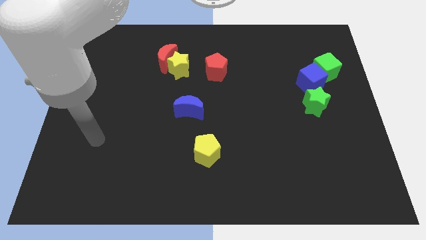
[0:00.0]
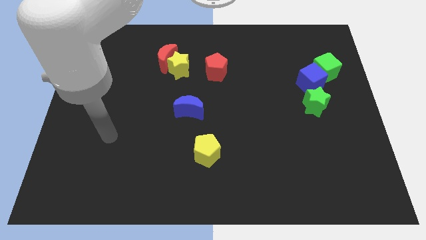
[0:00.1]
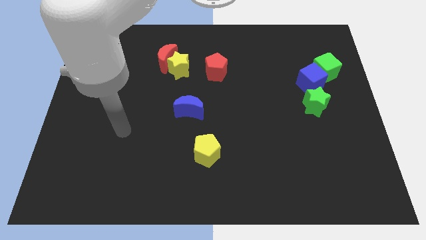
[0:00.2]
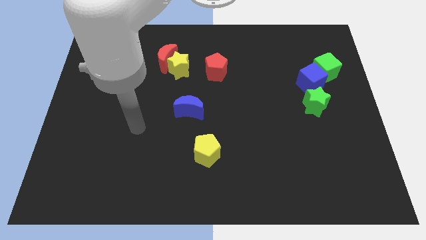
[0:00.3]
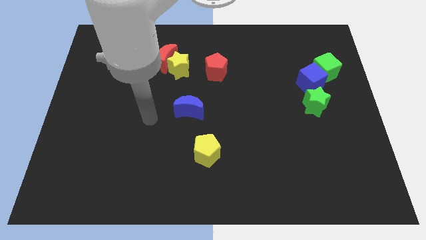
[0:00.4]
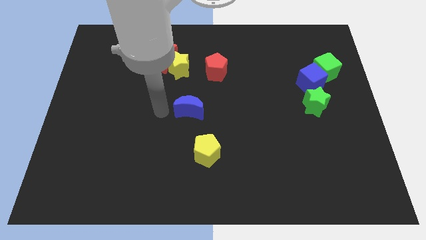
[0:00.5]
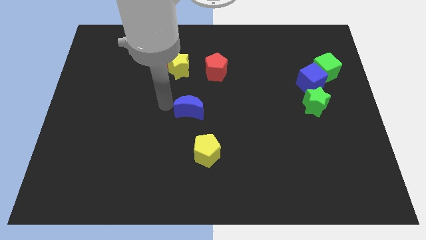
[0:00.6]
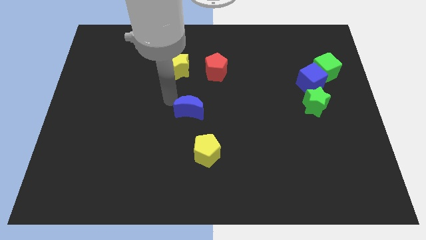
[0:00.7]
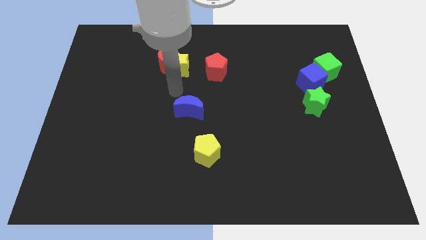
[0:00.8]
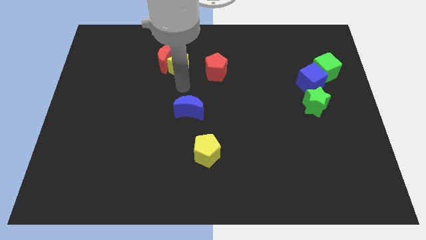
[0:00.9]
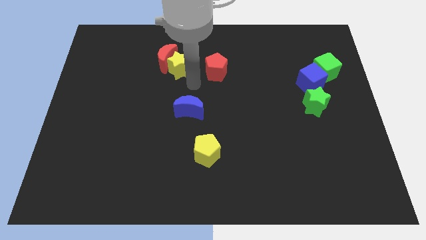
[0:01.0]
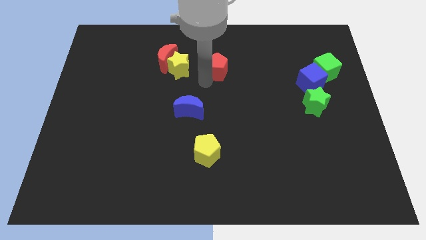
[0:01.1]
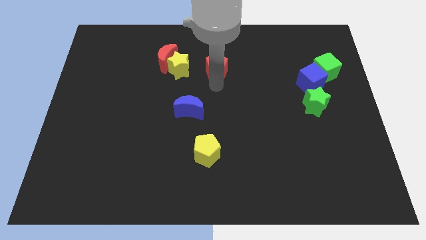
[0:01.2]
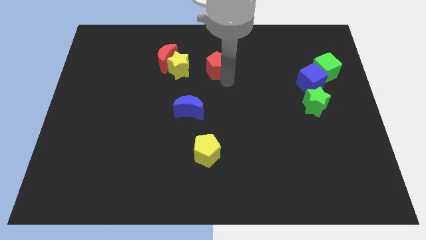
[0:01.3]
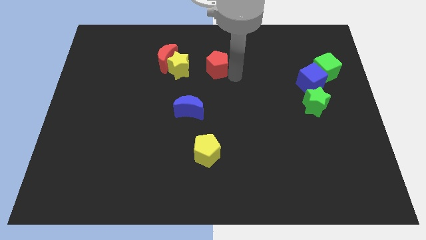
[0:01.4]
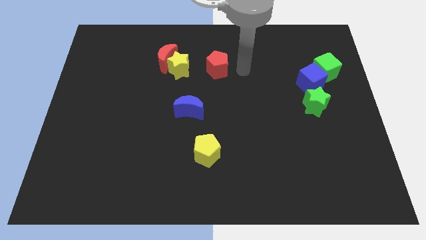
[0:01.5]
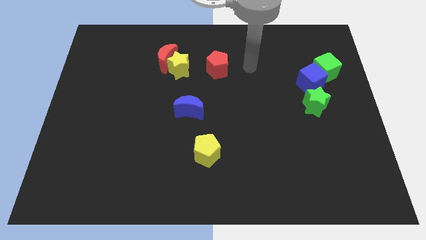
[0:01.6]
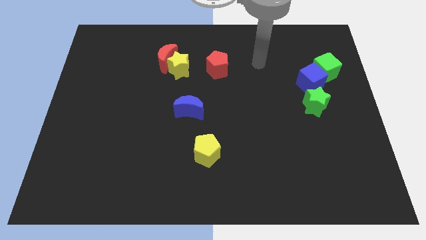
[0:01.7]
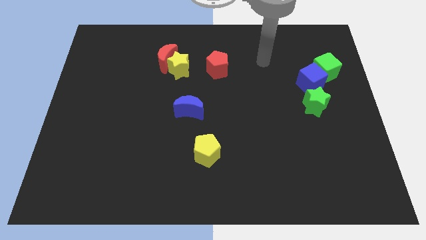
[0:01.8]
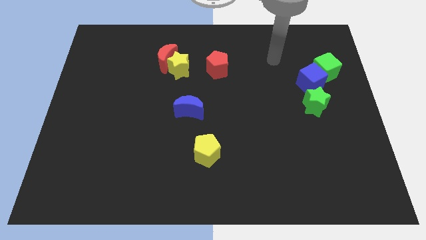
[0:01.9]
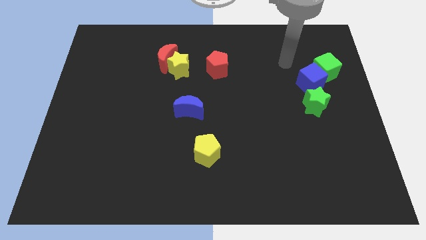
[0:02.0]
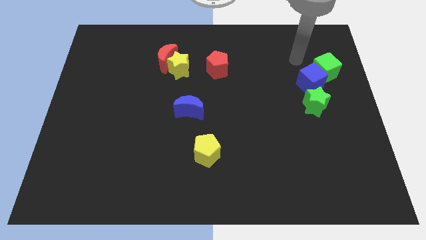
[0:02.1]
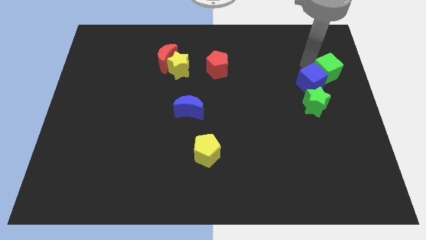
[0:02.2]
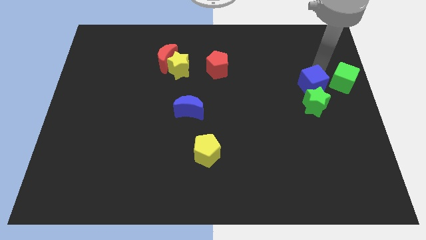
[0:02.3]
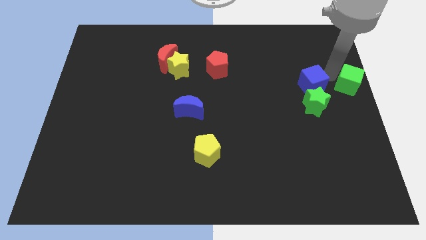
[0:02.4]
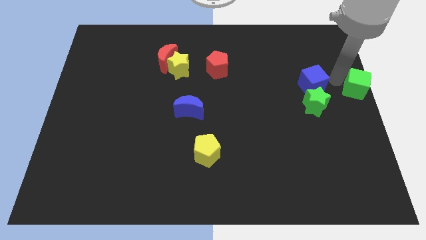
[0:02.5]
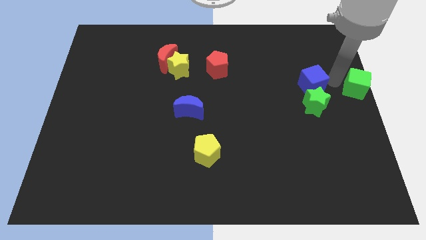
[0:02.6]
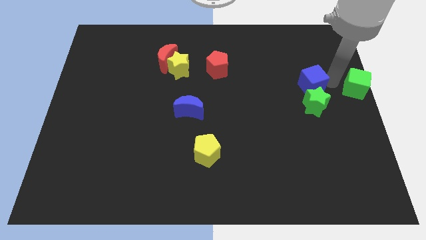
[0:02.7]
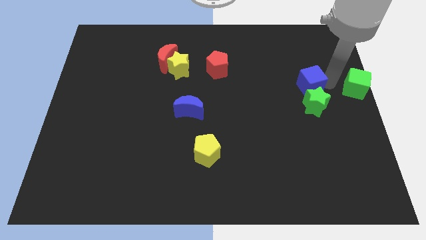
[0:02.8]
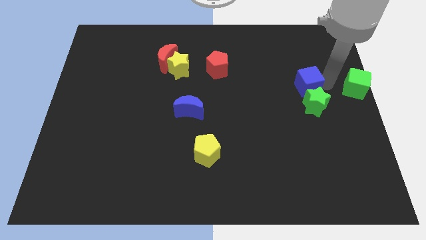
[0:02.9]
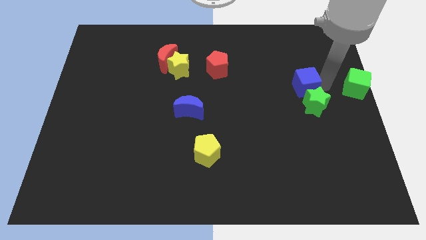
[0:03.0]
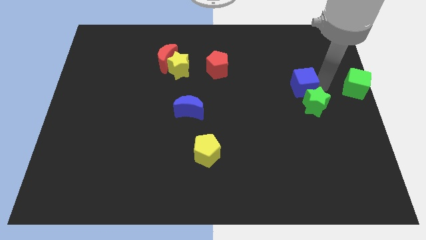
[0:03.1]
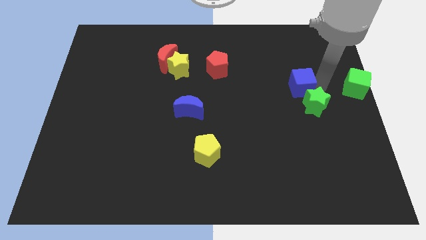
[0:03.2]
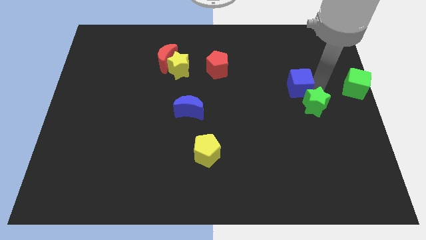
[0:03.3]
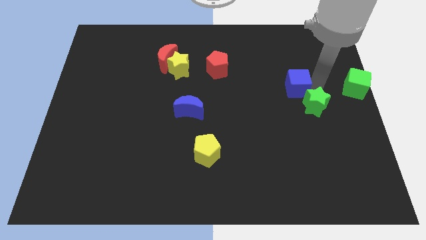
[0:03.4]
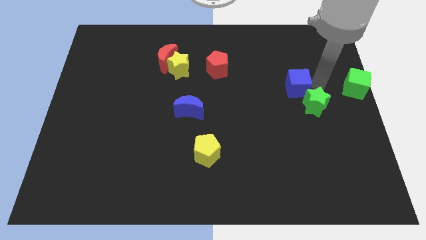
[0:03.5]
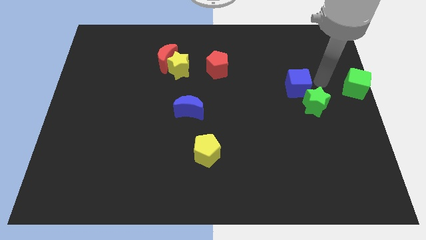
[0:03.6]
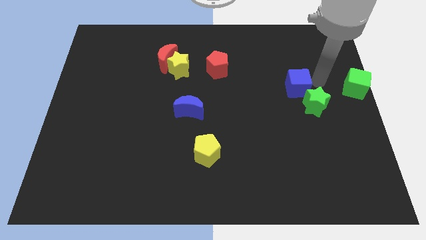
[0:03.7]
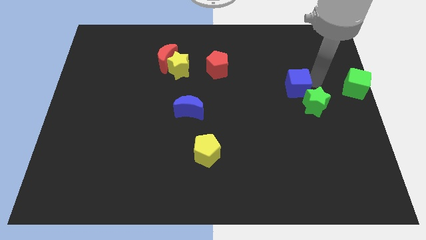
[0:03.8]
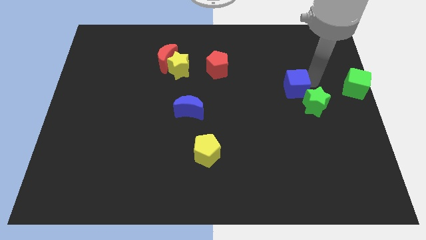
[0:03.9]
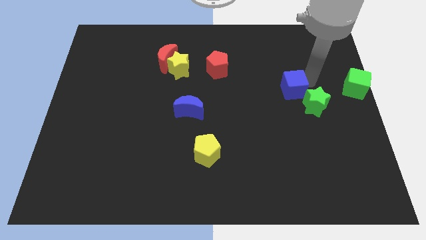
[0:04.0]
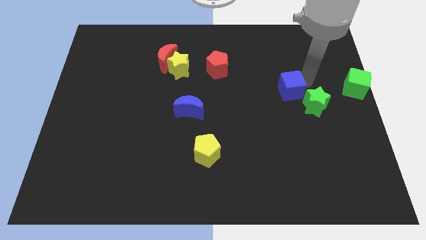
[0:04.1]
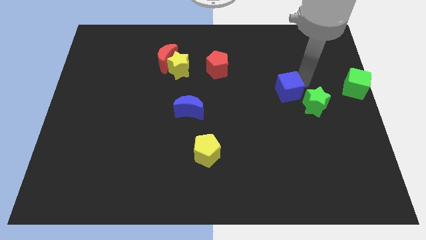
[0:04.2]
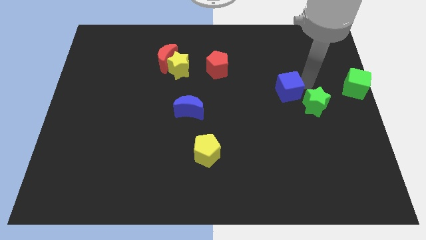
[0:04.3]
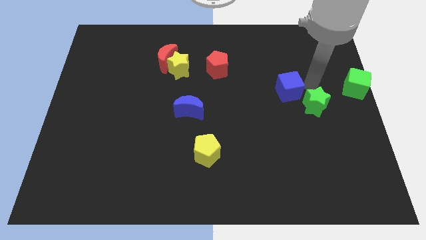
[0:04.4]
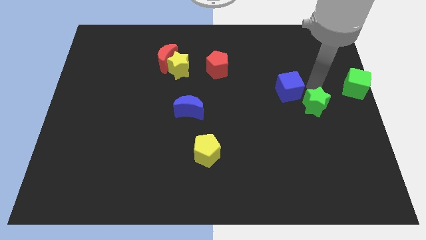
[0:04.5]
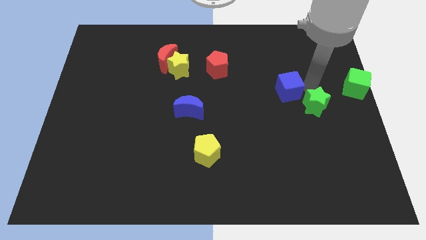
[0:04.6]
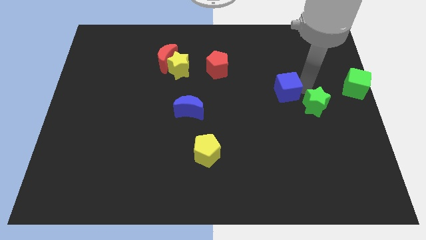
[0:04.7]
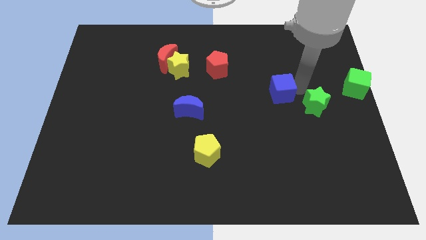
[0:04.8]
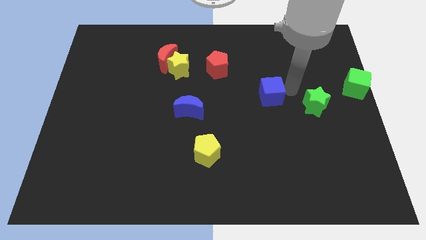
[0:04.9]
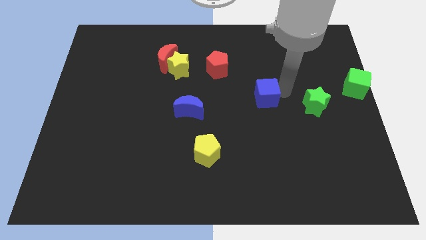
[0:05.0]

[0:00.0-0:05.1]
push the blue cube to the center

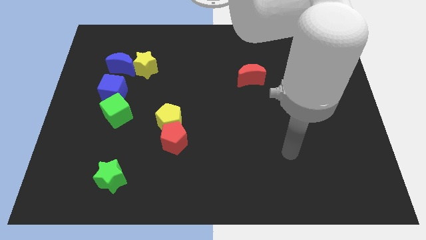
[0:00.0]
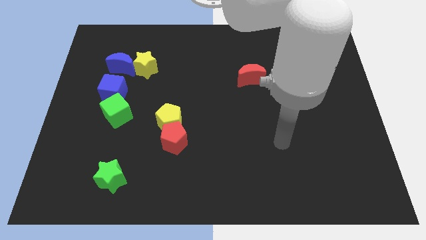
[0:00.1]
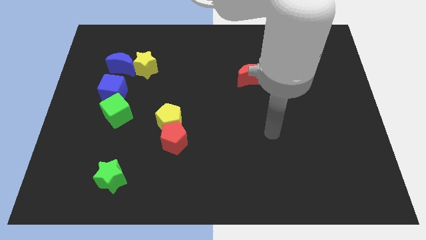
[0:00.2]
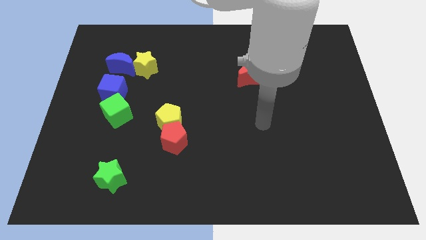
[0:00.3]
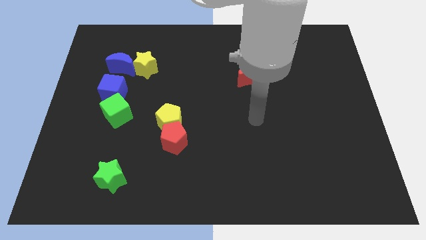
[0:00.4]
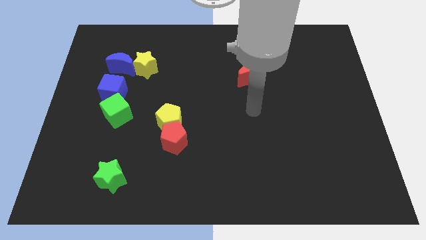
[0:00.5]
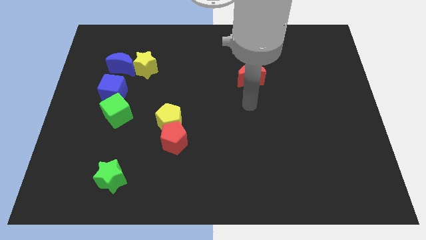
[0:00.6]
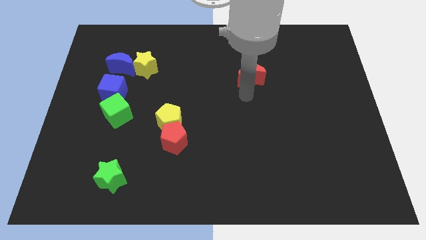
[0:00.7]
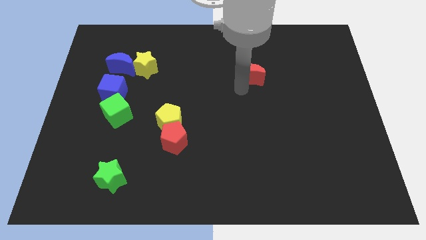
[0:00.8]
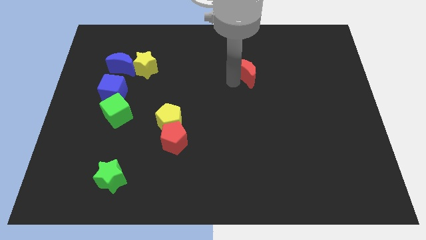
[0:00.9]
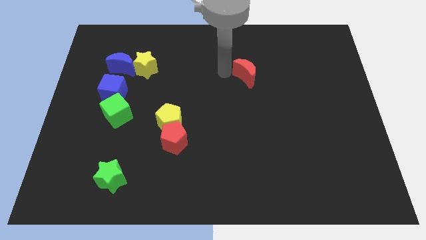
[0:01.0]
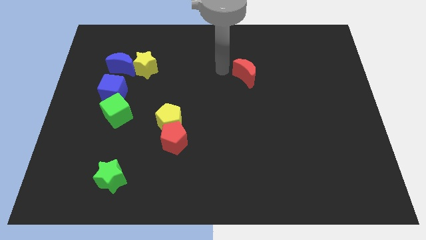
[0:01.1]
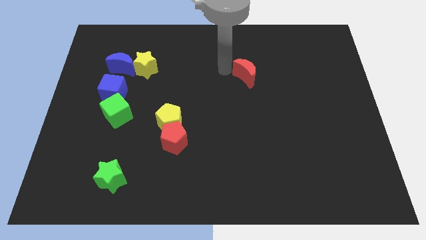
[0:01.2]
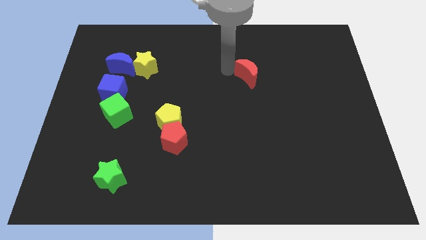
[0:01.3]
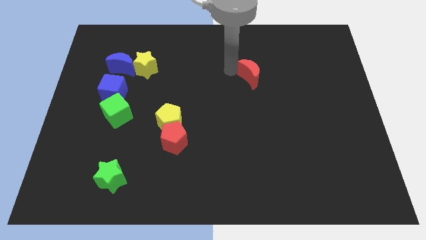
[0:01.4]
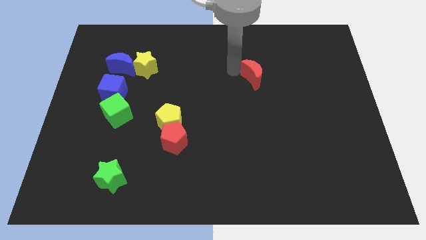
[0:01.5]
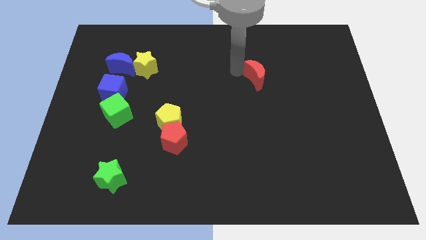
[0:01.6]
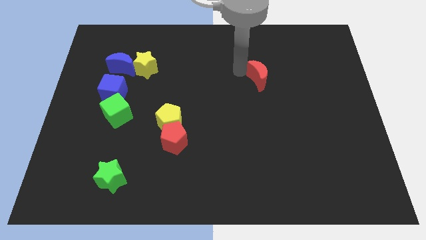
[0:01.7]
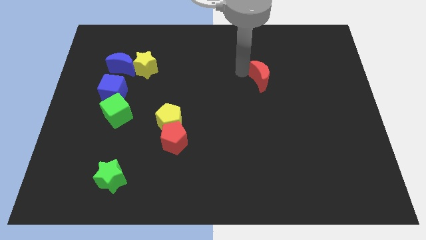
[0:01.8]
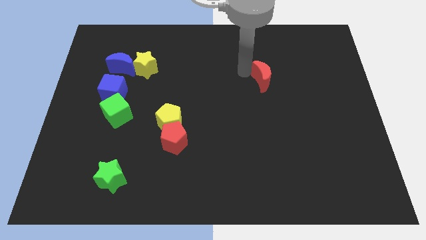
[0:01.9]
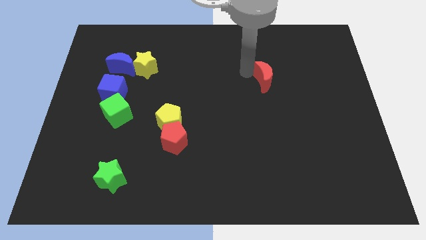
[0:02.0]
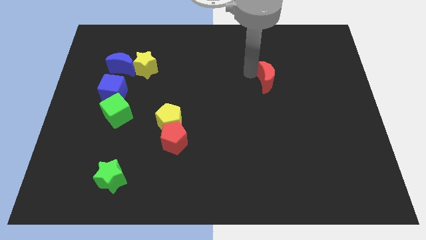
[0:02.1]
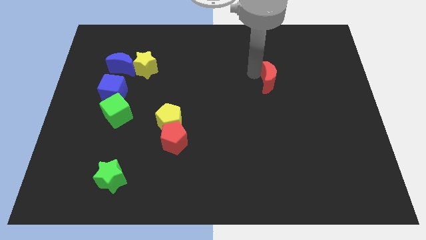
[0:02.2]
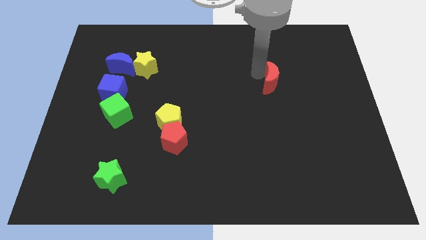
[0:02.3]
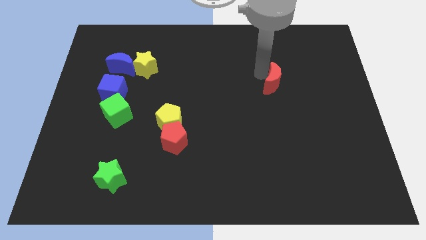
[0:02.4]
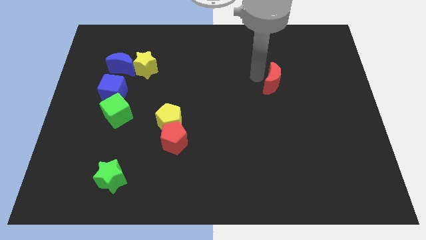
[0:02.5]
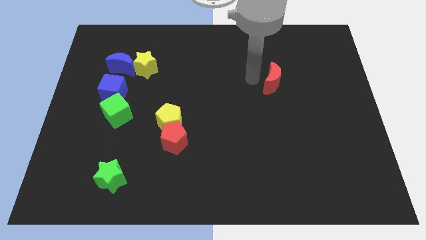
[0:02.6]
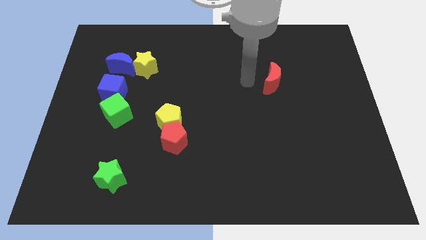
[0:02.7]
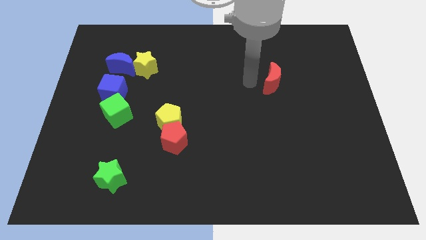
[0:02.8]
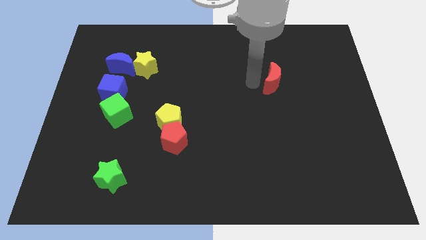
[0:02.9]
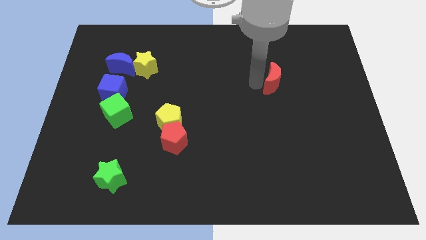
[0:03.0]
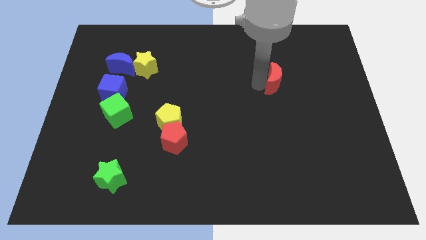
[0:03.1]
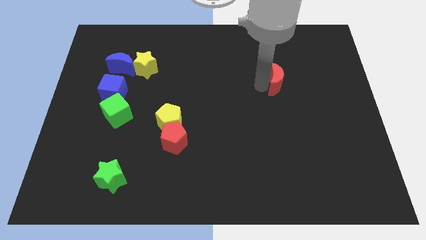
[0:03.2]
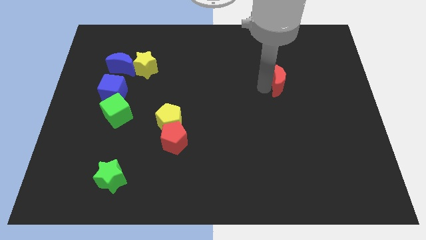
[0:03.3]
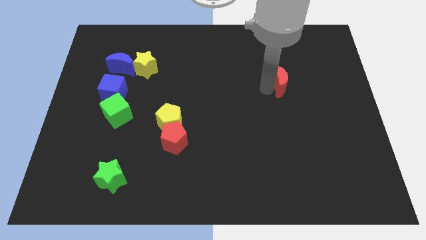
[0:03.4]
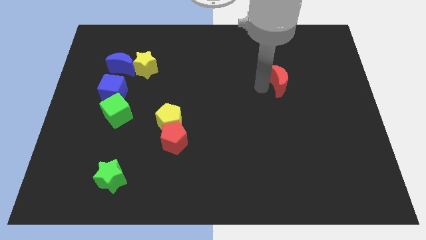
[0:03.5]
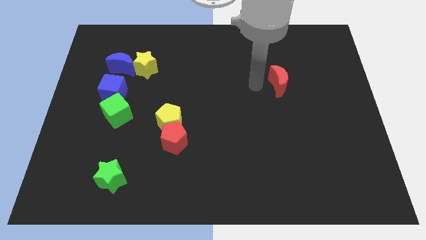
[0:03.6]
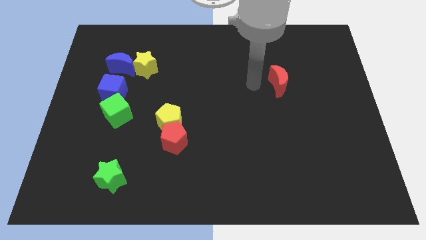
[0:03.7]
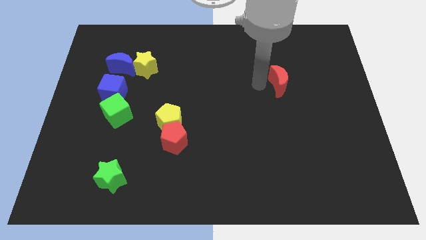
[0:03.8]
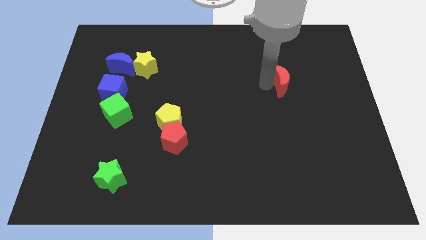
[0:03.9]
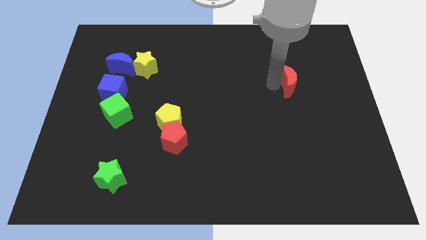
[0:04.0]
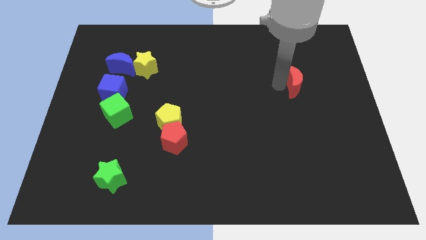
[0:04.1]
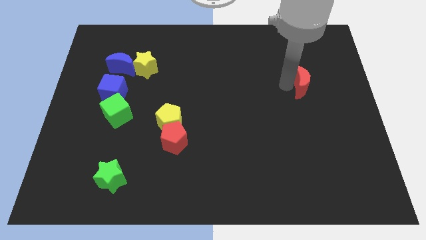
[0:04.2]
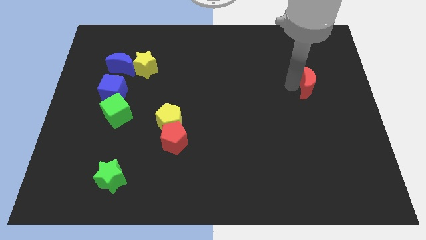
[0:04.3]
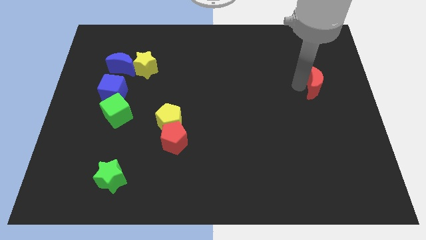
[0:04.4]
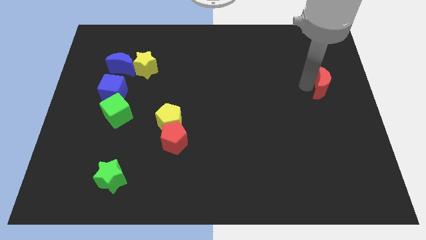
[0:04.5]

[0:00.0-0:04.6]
push the red moon to the center right
